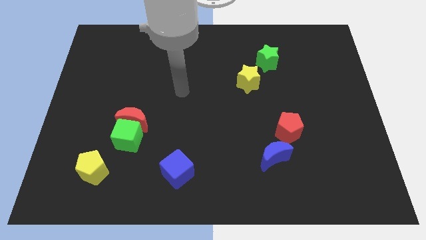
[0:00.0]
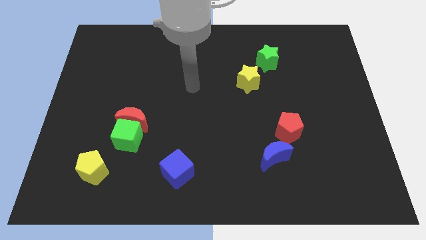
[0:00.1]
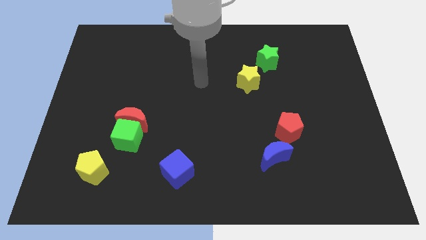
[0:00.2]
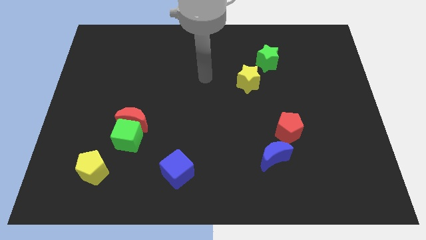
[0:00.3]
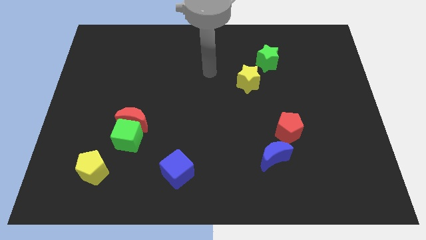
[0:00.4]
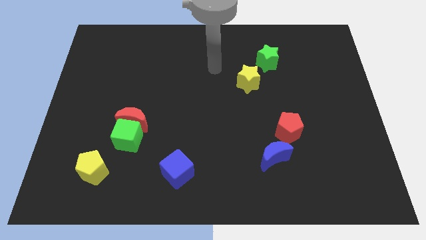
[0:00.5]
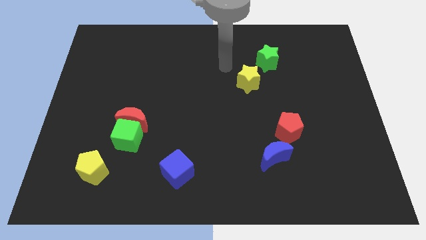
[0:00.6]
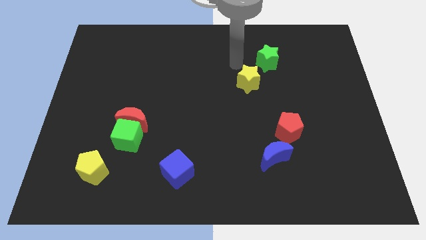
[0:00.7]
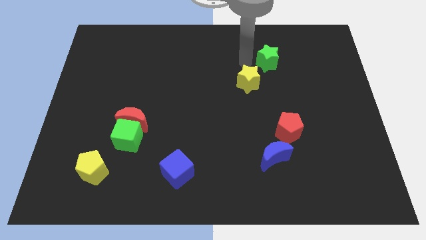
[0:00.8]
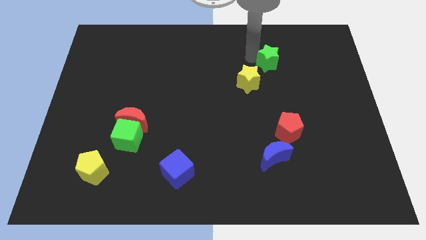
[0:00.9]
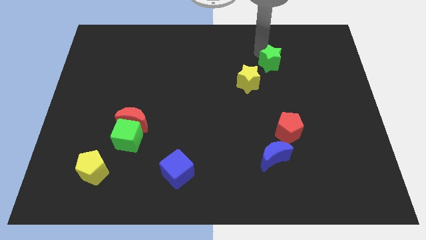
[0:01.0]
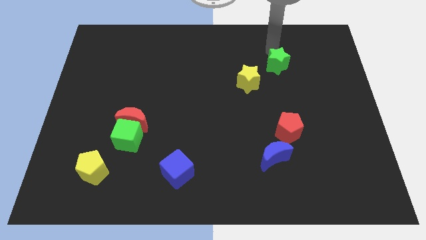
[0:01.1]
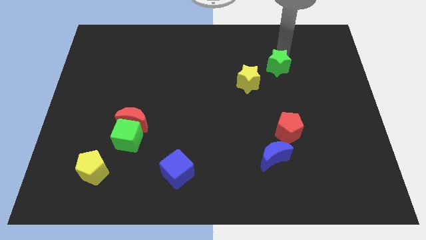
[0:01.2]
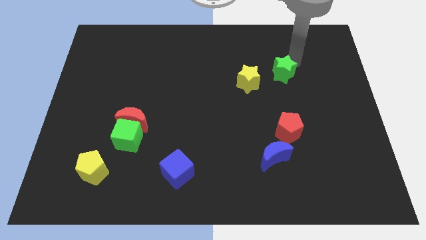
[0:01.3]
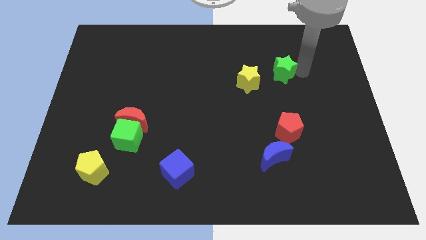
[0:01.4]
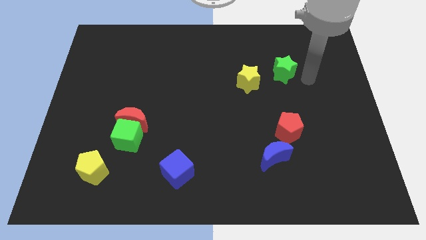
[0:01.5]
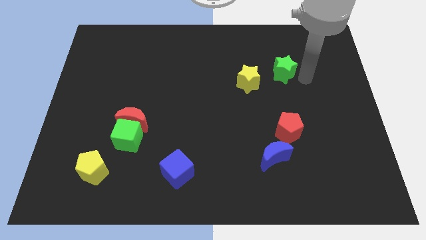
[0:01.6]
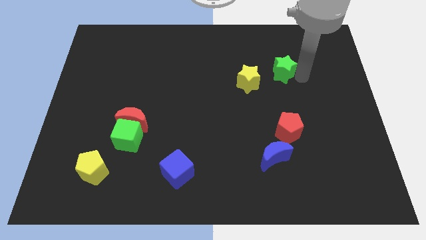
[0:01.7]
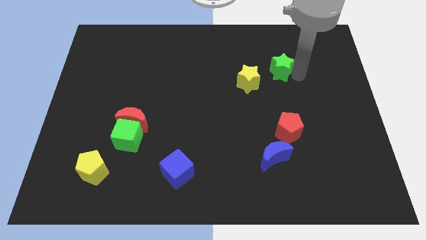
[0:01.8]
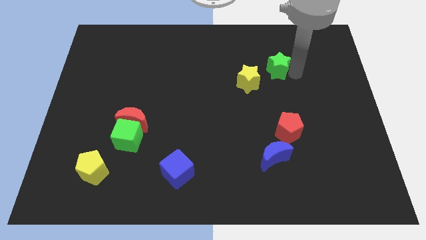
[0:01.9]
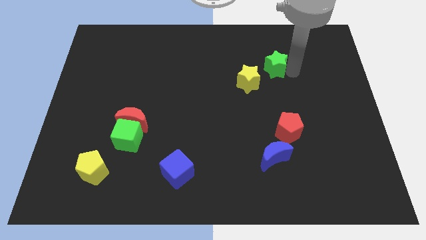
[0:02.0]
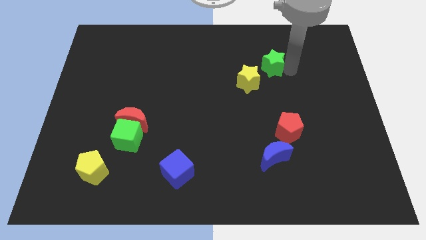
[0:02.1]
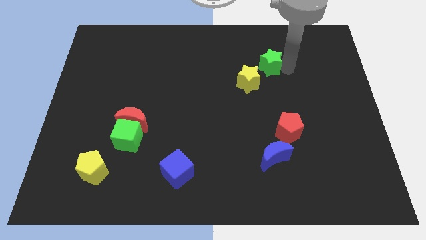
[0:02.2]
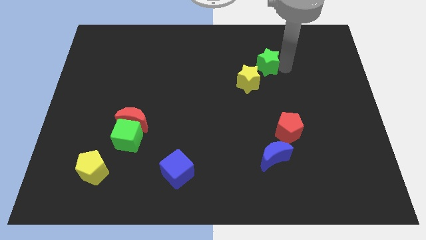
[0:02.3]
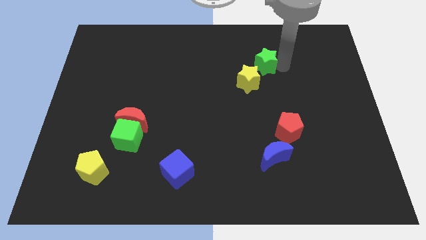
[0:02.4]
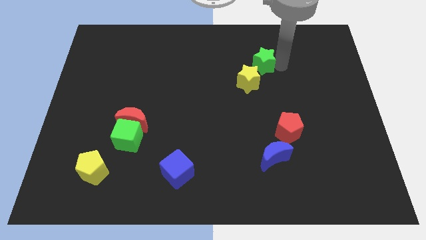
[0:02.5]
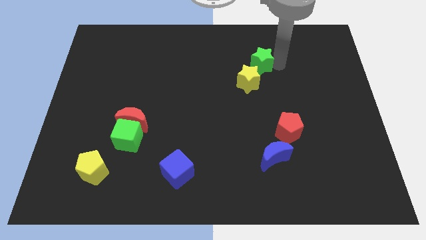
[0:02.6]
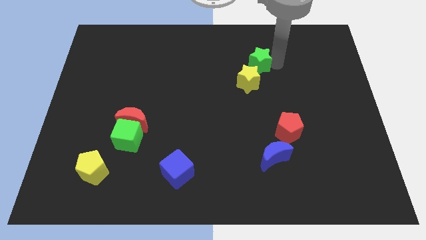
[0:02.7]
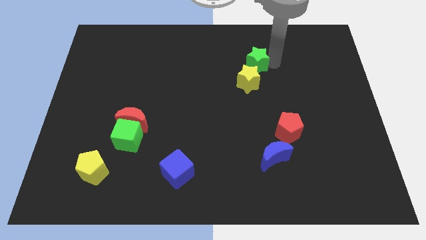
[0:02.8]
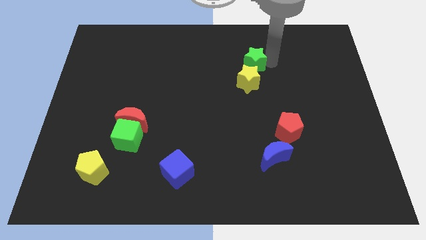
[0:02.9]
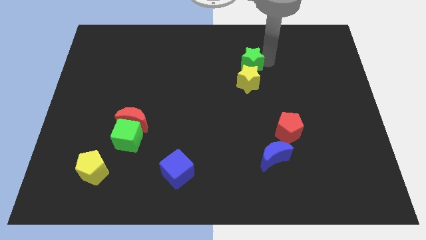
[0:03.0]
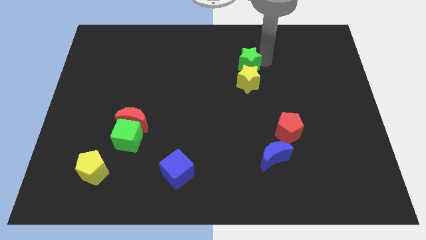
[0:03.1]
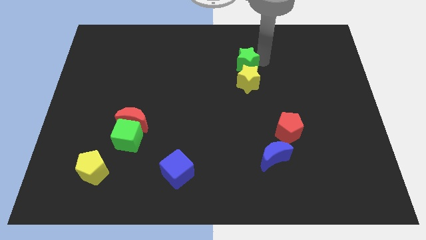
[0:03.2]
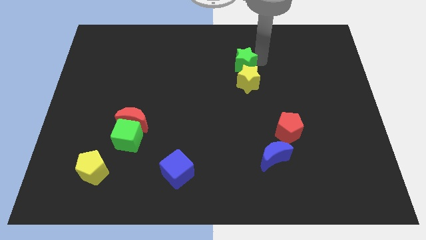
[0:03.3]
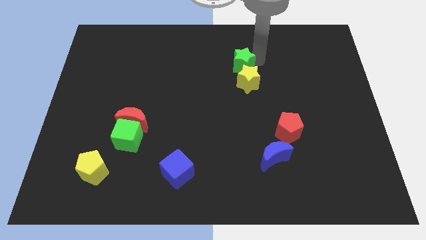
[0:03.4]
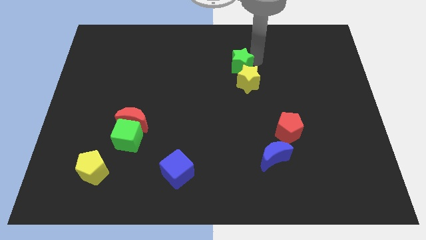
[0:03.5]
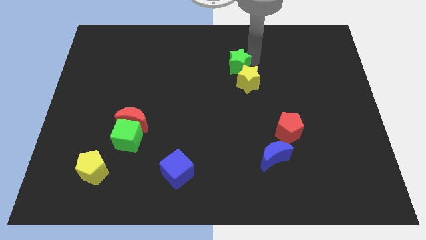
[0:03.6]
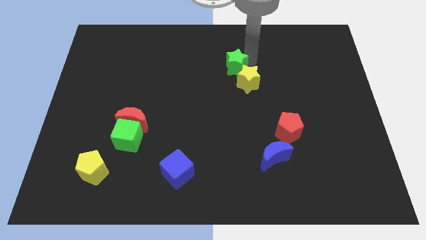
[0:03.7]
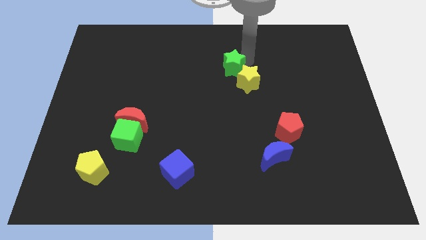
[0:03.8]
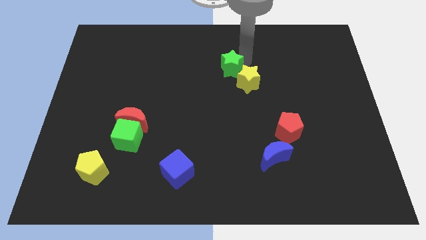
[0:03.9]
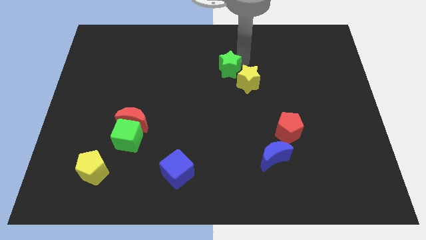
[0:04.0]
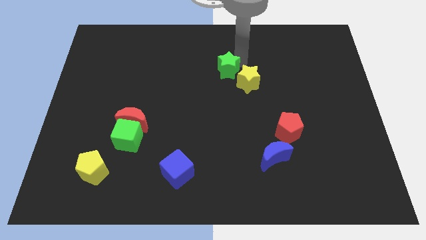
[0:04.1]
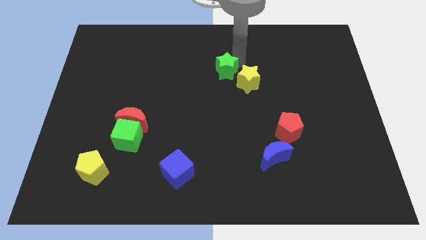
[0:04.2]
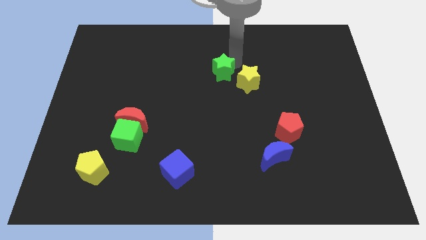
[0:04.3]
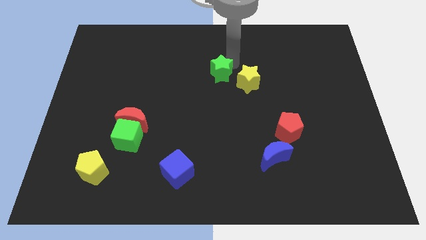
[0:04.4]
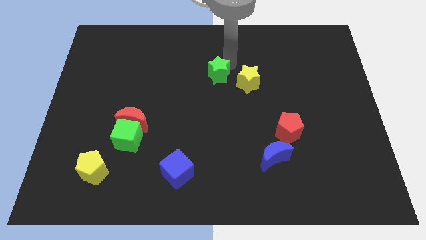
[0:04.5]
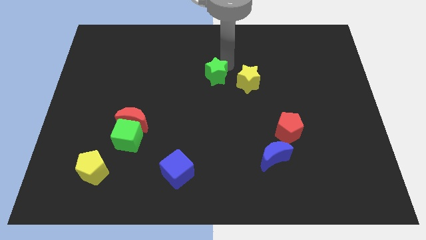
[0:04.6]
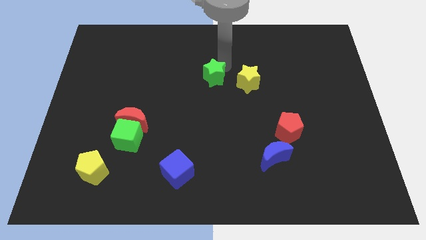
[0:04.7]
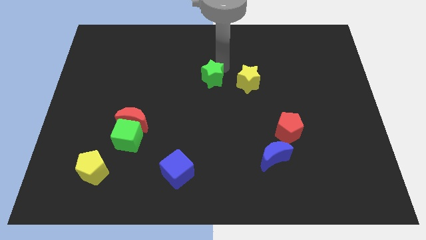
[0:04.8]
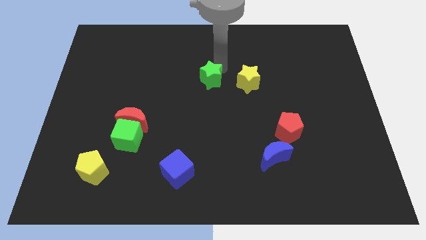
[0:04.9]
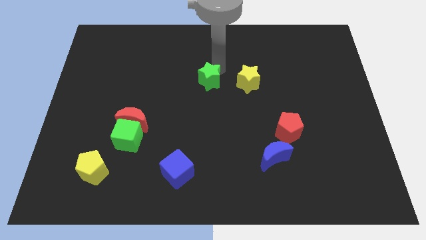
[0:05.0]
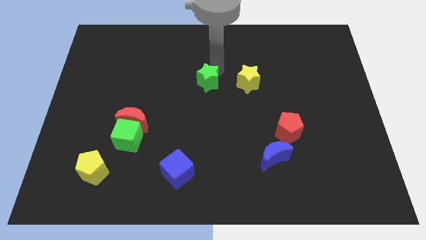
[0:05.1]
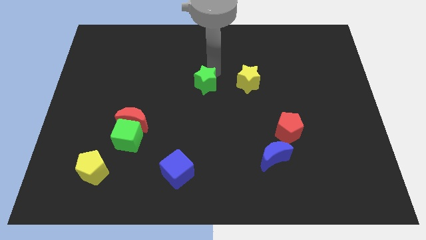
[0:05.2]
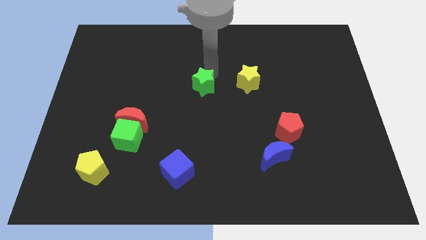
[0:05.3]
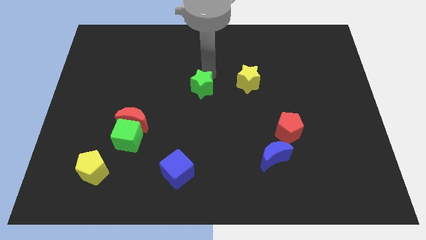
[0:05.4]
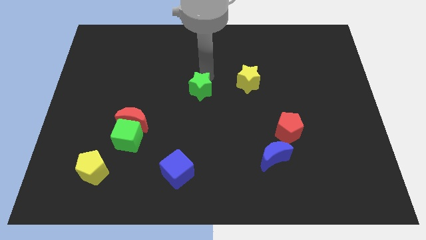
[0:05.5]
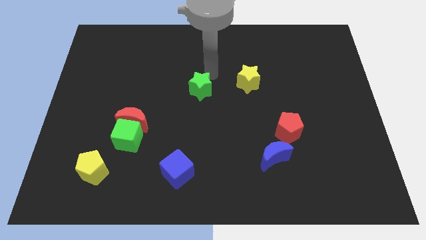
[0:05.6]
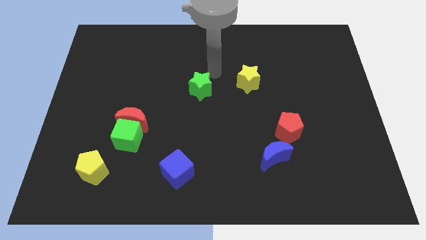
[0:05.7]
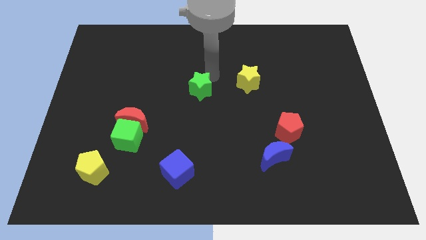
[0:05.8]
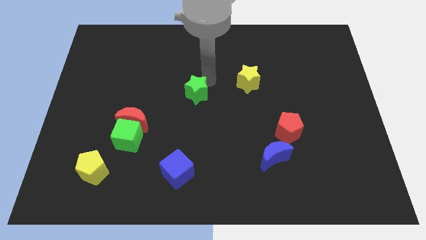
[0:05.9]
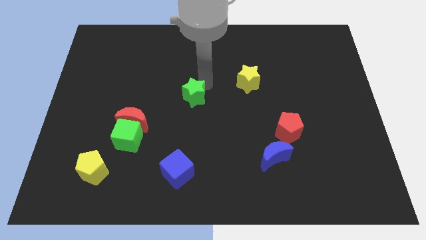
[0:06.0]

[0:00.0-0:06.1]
move the green star diagonally down and left

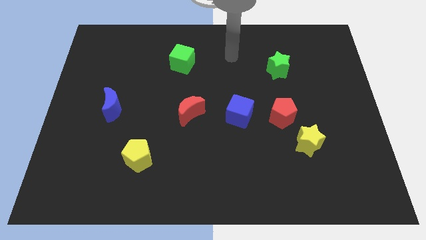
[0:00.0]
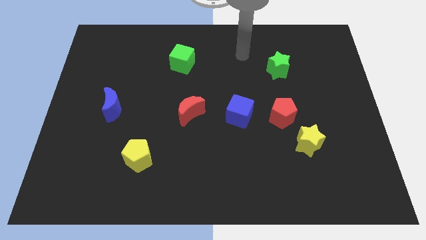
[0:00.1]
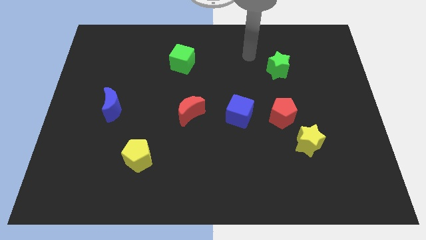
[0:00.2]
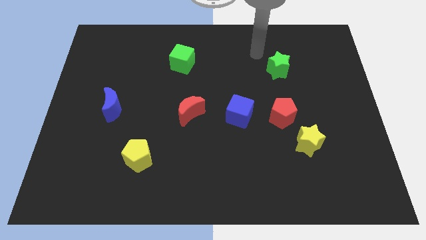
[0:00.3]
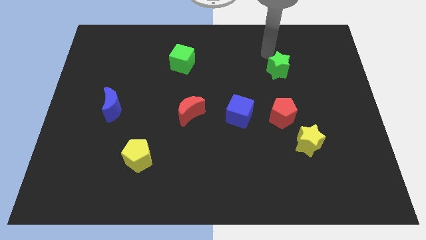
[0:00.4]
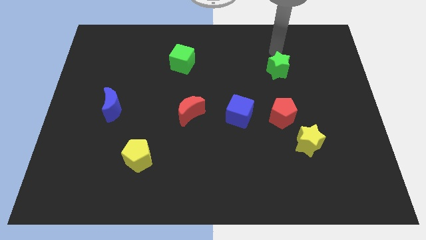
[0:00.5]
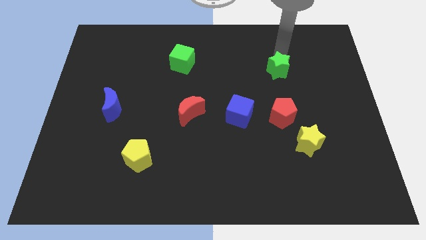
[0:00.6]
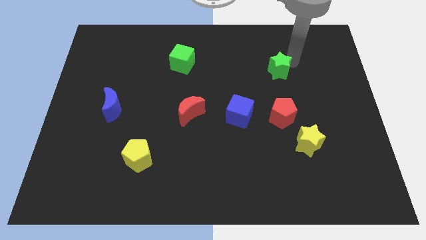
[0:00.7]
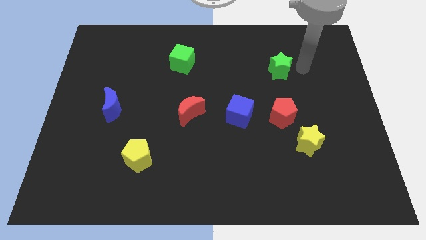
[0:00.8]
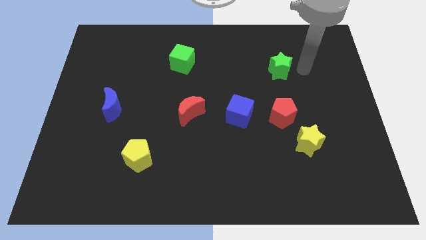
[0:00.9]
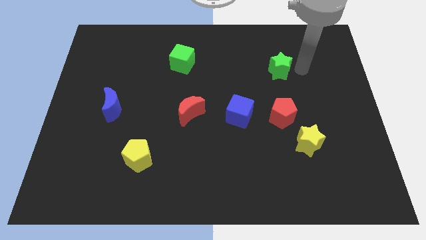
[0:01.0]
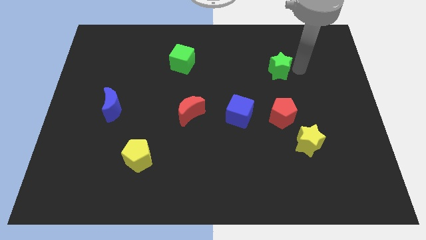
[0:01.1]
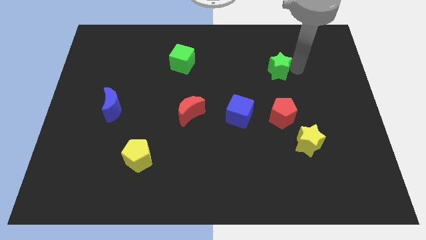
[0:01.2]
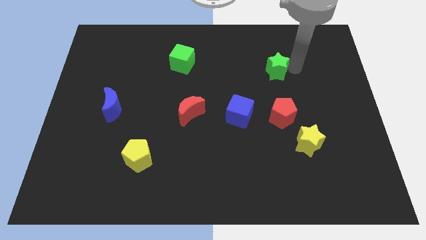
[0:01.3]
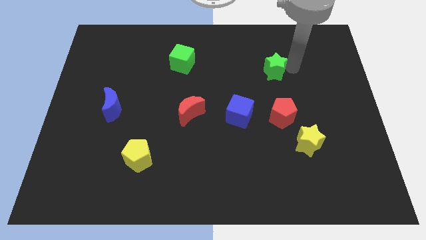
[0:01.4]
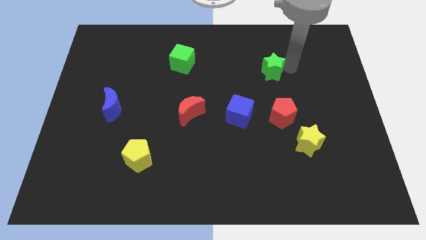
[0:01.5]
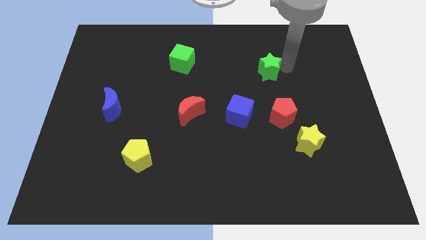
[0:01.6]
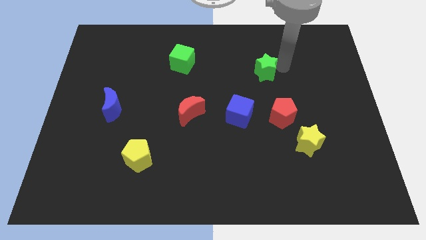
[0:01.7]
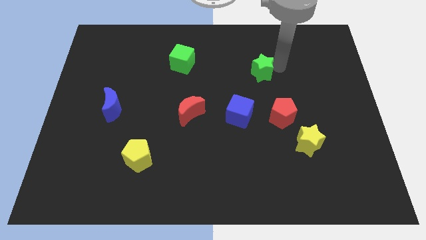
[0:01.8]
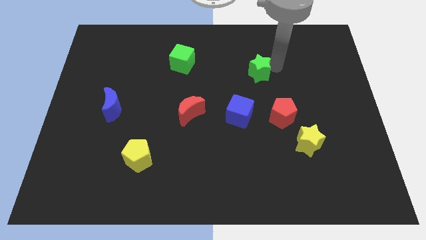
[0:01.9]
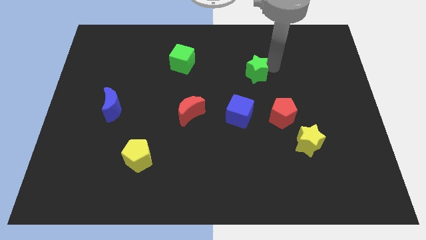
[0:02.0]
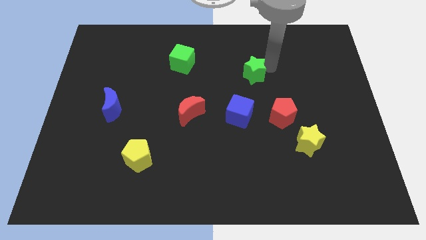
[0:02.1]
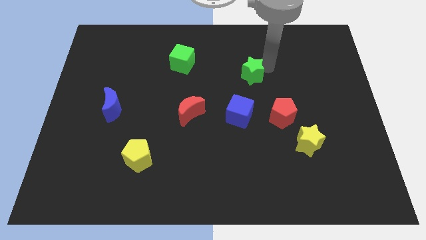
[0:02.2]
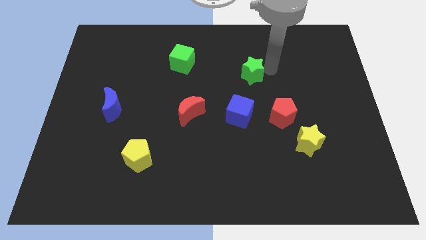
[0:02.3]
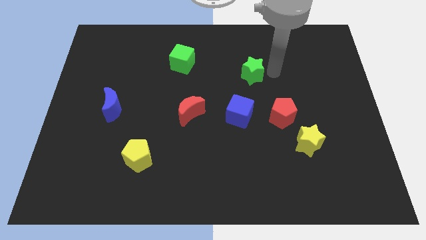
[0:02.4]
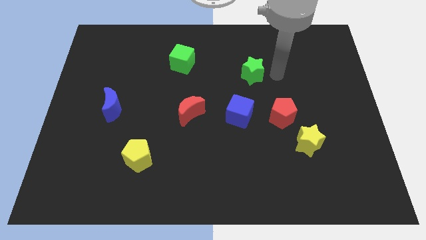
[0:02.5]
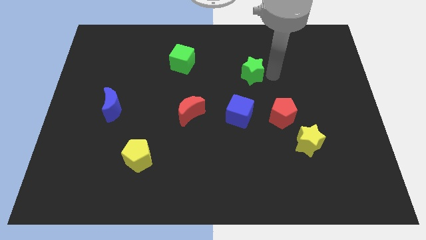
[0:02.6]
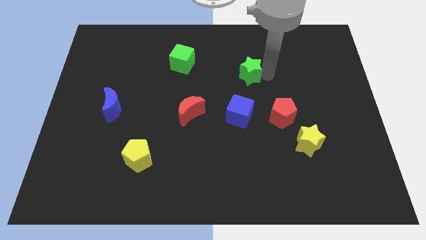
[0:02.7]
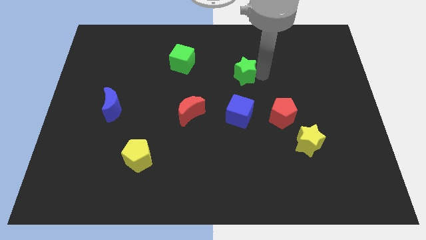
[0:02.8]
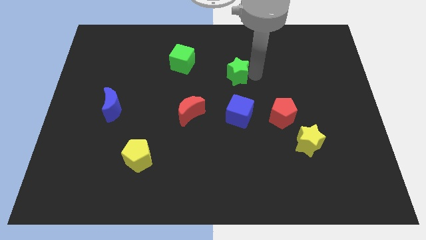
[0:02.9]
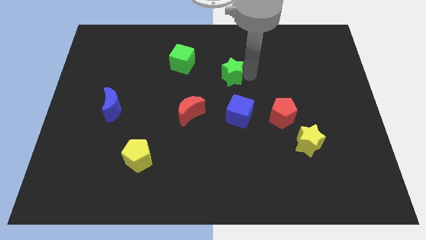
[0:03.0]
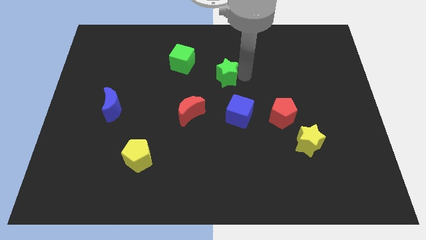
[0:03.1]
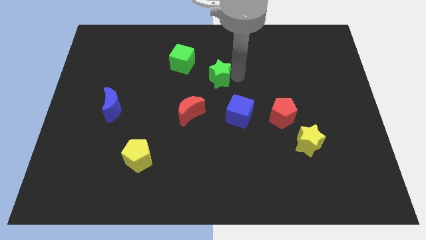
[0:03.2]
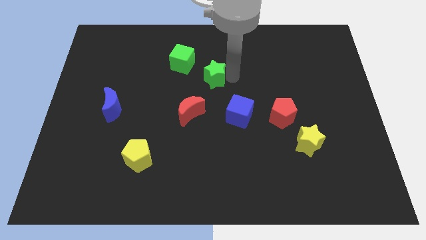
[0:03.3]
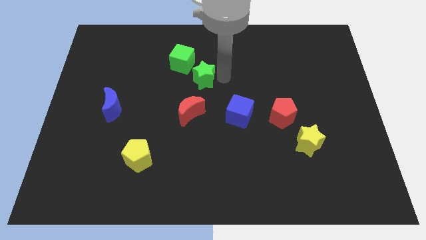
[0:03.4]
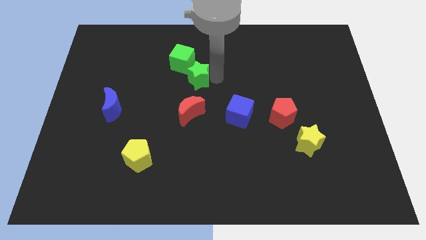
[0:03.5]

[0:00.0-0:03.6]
move the green star to the left
